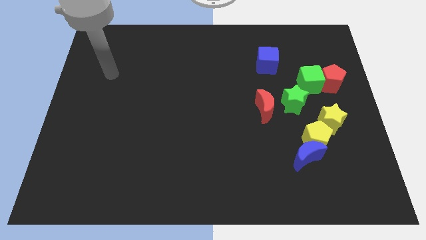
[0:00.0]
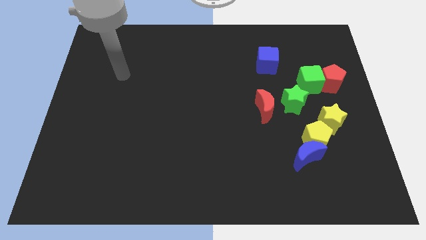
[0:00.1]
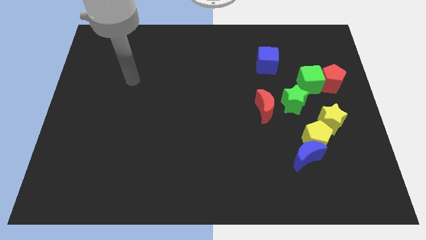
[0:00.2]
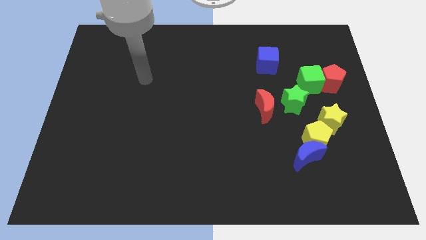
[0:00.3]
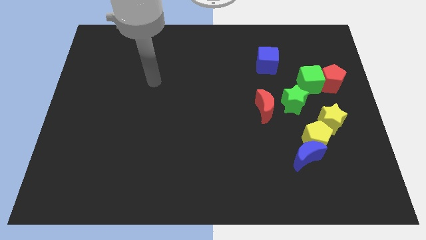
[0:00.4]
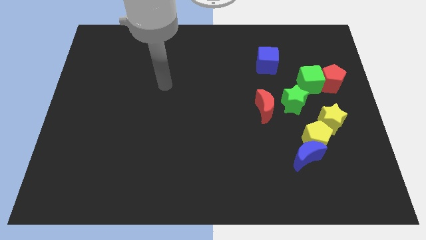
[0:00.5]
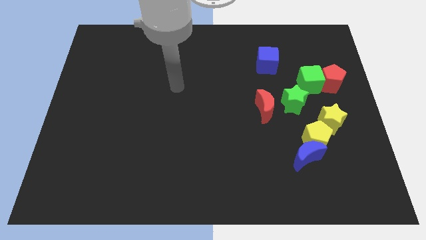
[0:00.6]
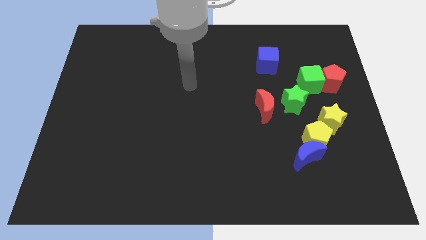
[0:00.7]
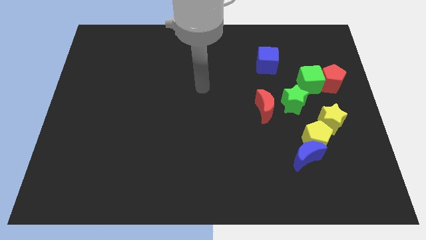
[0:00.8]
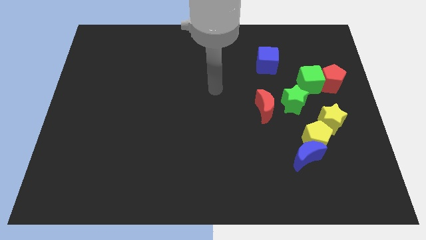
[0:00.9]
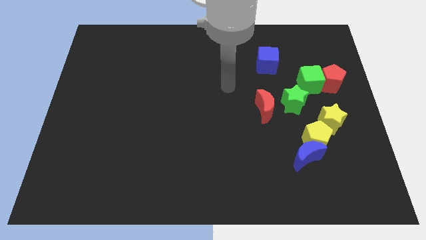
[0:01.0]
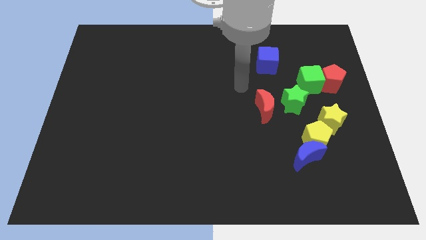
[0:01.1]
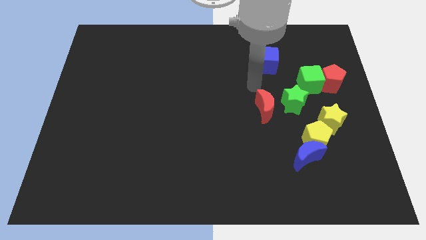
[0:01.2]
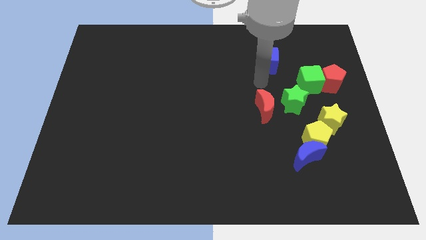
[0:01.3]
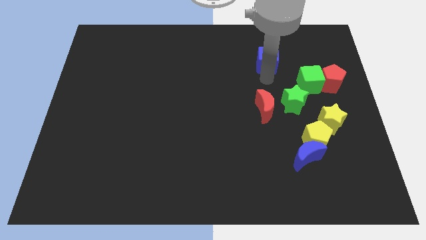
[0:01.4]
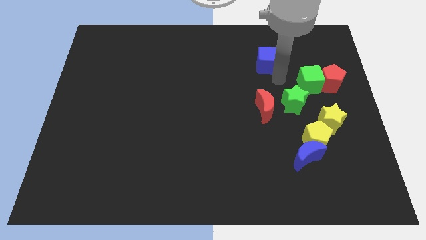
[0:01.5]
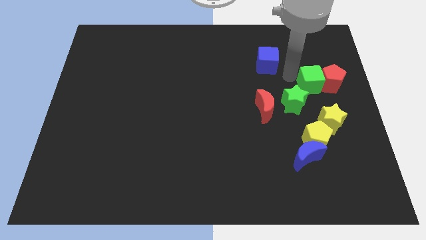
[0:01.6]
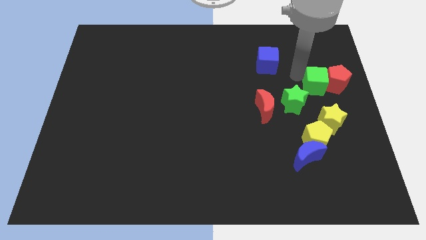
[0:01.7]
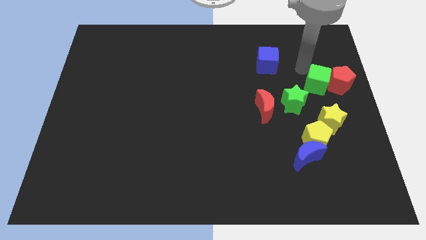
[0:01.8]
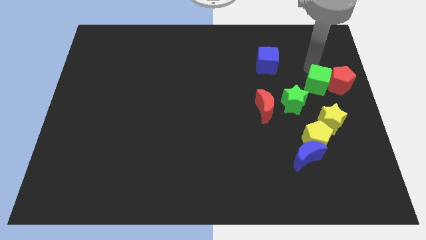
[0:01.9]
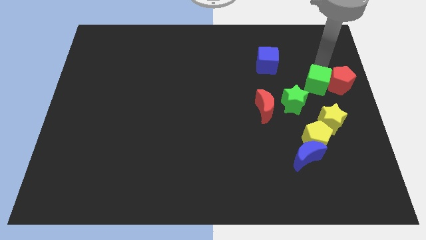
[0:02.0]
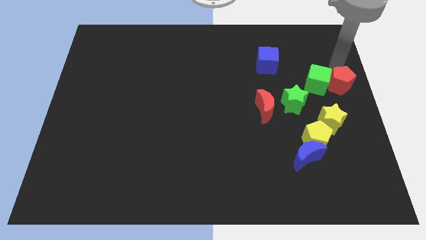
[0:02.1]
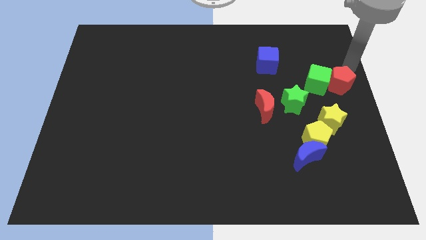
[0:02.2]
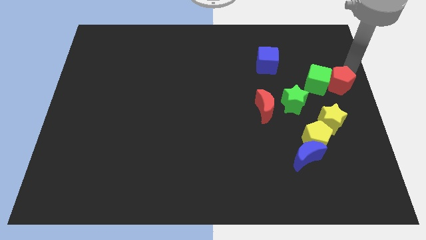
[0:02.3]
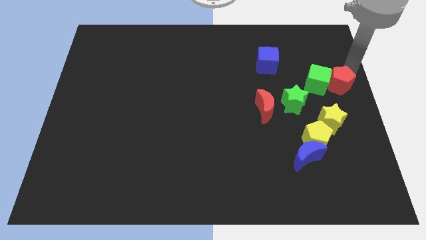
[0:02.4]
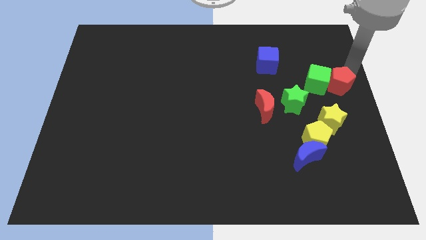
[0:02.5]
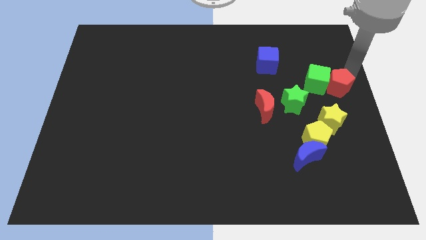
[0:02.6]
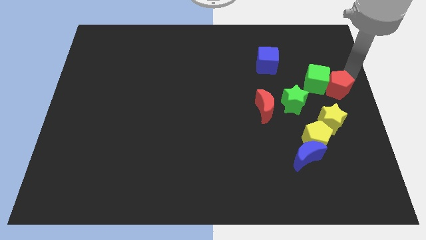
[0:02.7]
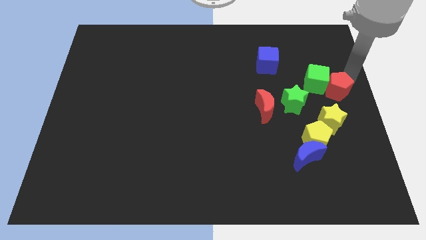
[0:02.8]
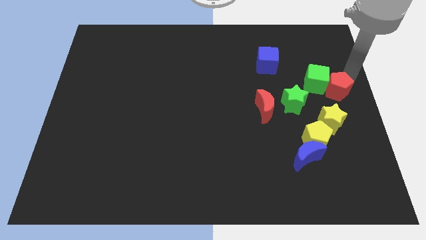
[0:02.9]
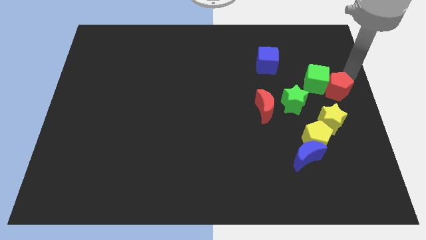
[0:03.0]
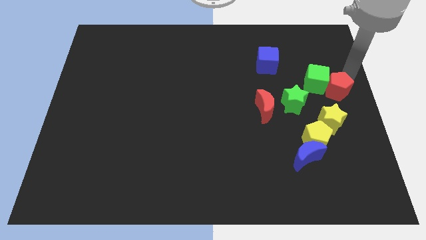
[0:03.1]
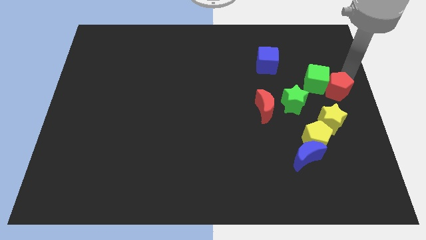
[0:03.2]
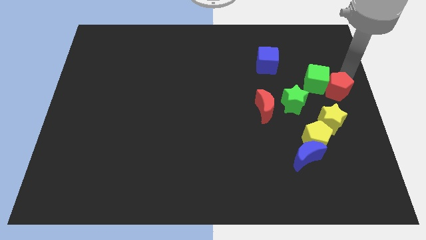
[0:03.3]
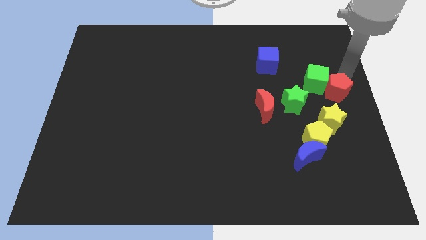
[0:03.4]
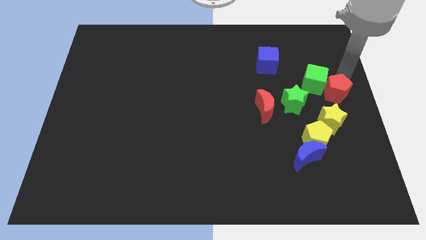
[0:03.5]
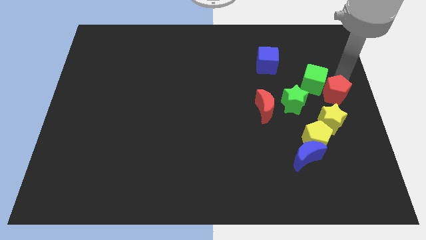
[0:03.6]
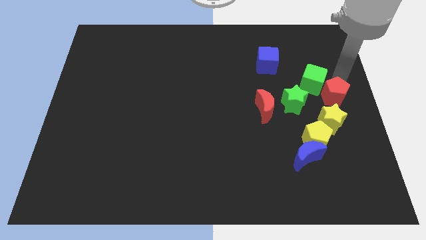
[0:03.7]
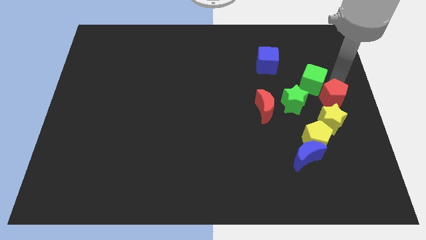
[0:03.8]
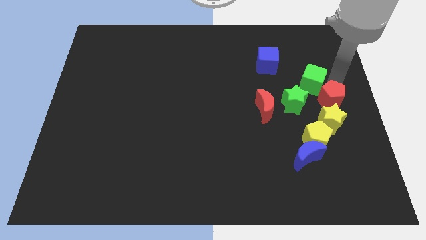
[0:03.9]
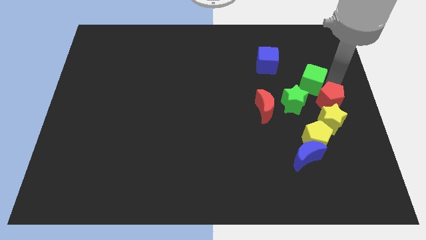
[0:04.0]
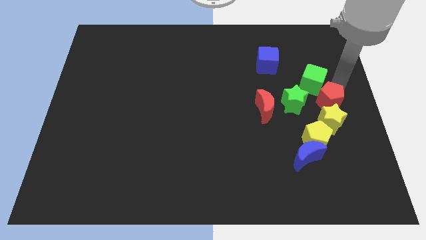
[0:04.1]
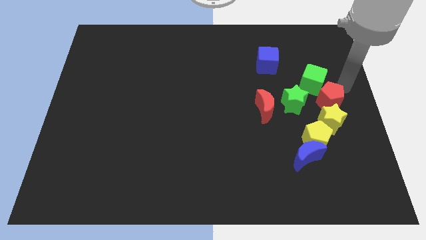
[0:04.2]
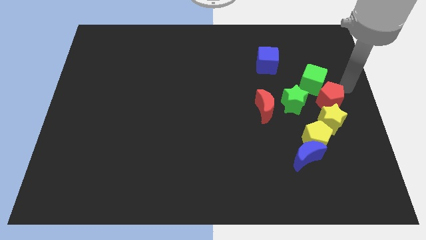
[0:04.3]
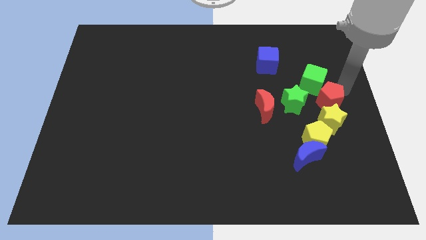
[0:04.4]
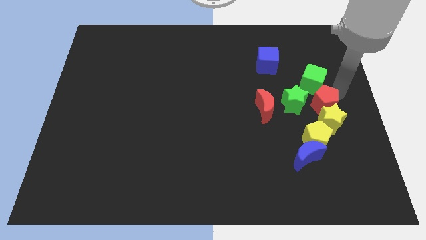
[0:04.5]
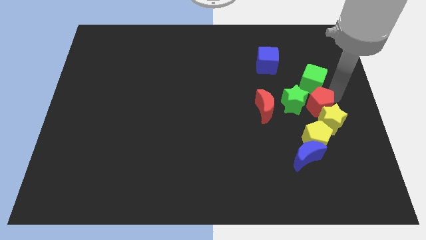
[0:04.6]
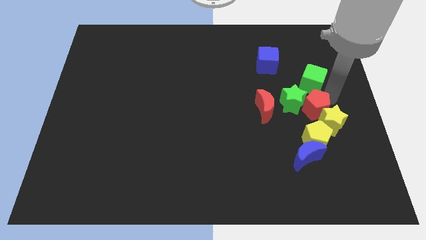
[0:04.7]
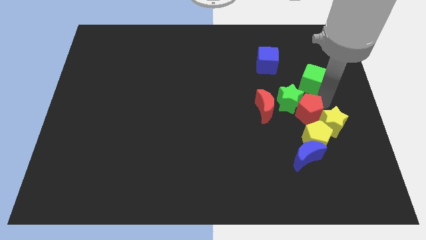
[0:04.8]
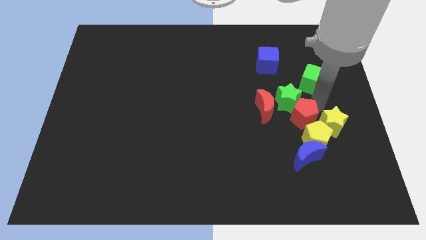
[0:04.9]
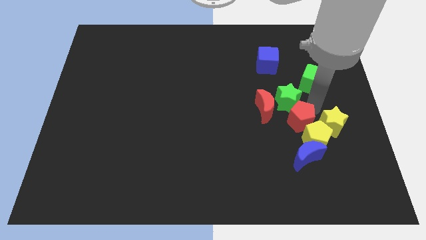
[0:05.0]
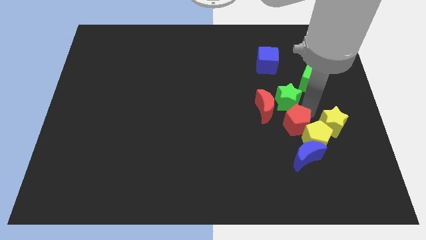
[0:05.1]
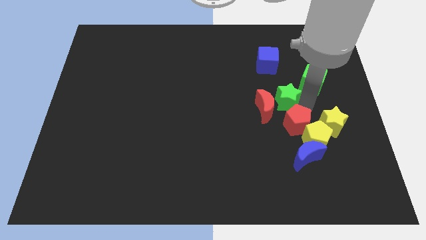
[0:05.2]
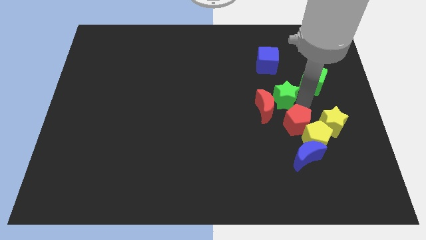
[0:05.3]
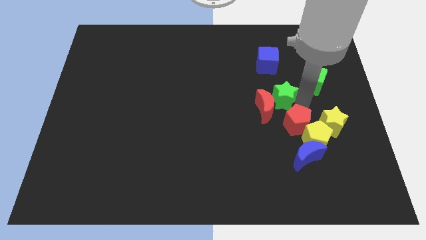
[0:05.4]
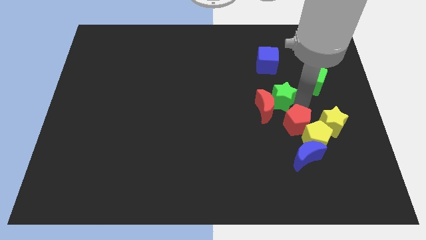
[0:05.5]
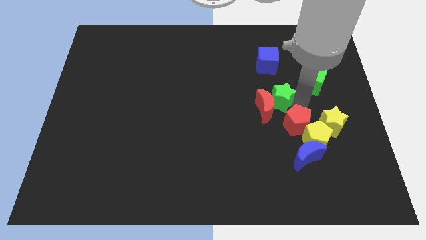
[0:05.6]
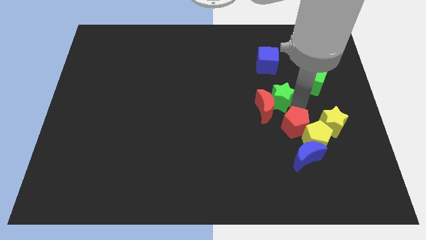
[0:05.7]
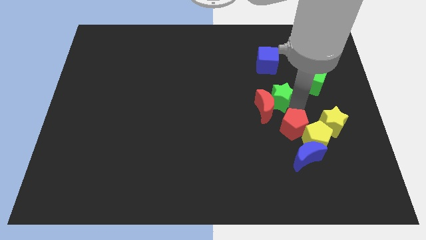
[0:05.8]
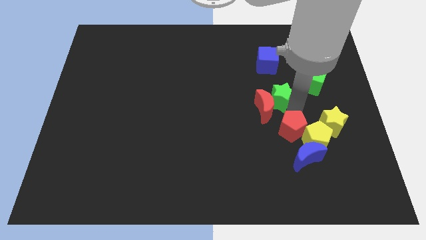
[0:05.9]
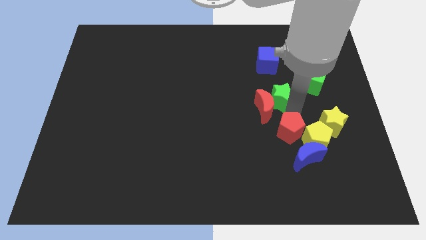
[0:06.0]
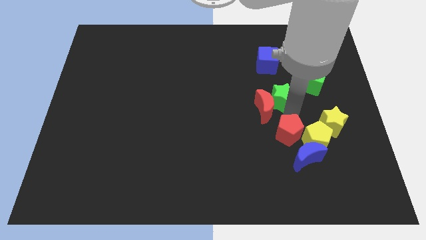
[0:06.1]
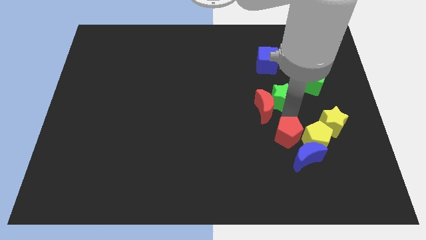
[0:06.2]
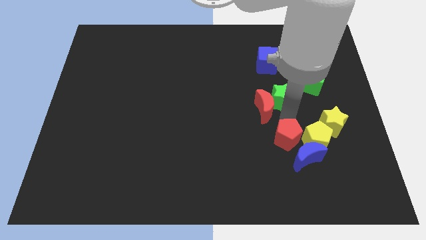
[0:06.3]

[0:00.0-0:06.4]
slide the red pentagon next to the blue moon
